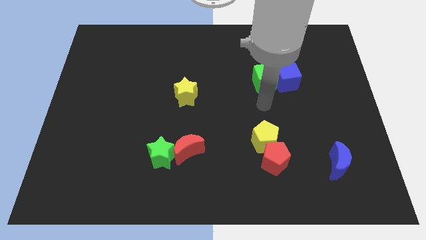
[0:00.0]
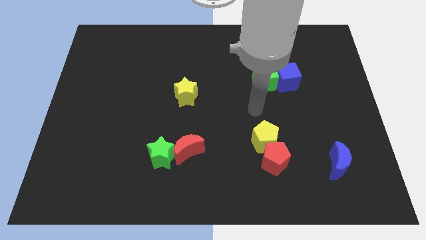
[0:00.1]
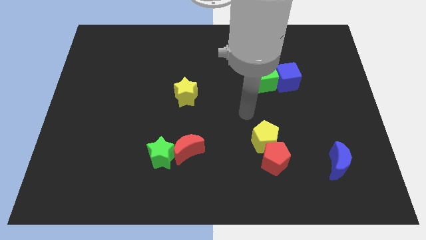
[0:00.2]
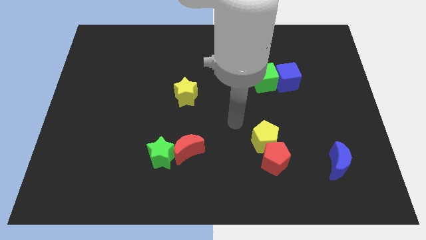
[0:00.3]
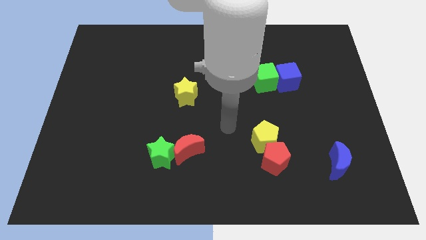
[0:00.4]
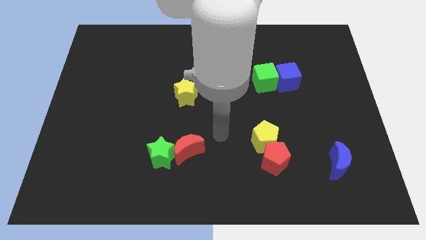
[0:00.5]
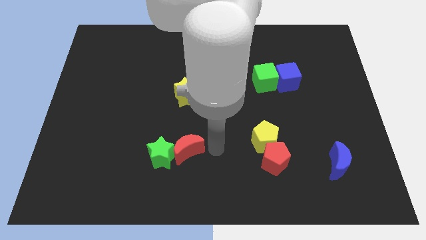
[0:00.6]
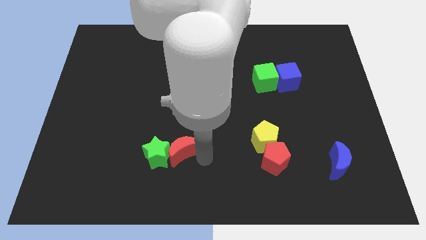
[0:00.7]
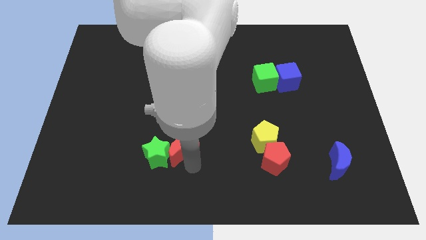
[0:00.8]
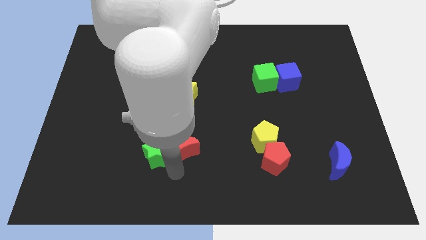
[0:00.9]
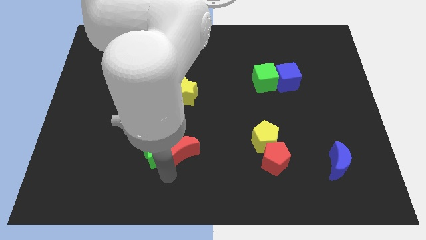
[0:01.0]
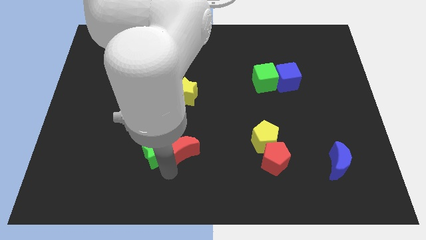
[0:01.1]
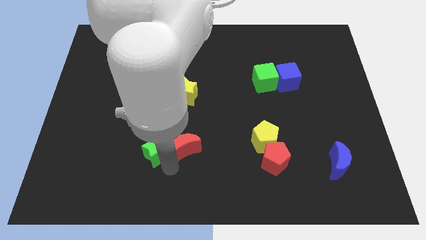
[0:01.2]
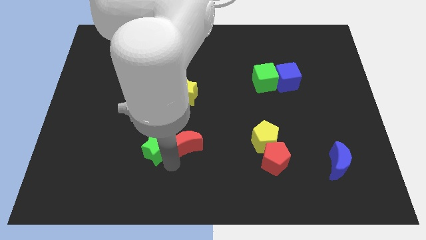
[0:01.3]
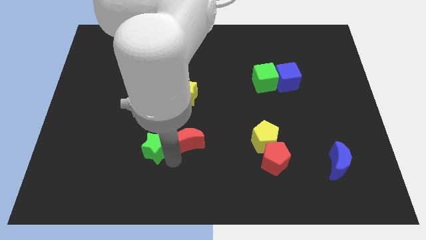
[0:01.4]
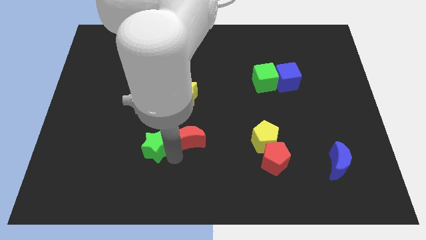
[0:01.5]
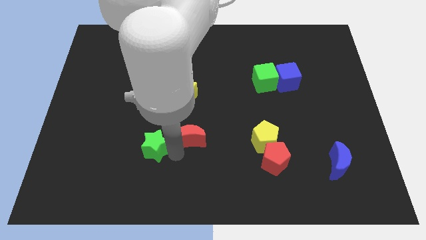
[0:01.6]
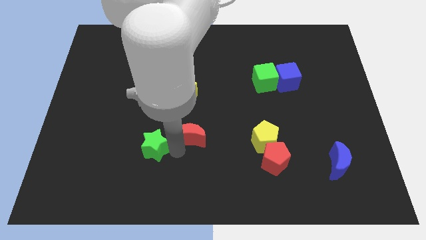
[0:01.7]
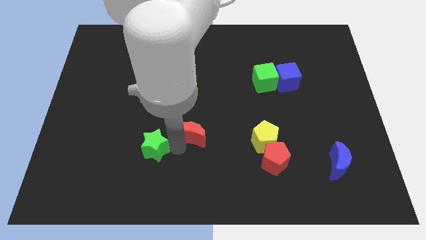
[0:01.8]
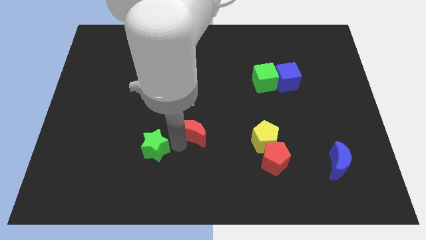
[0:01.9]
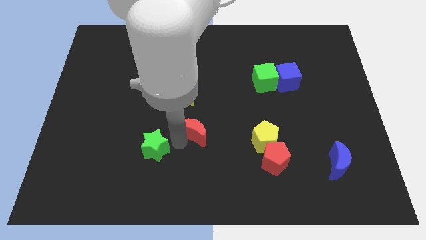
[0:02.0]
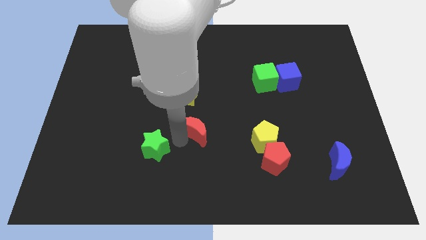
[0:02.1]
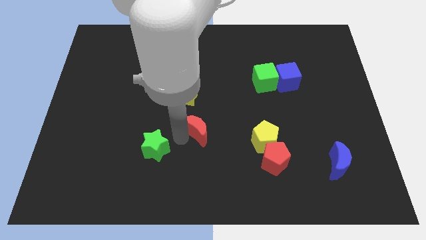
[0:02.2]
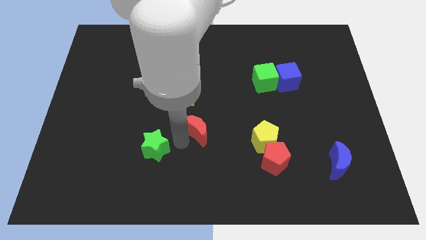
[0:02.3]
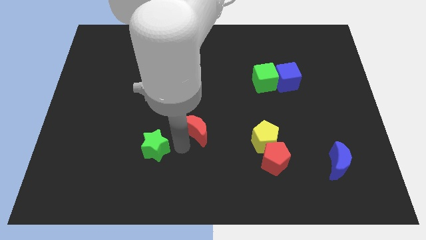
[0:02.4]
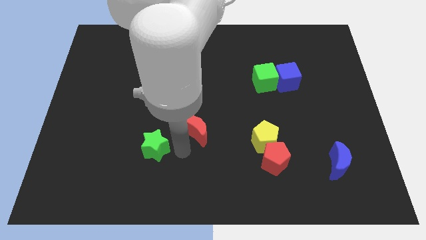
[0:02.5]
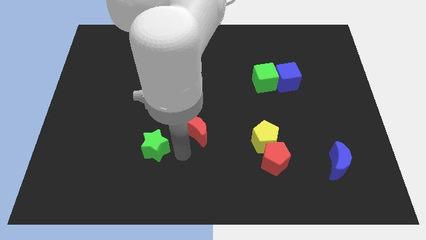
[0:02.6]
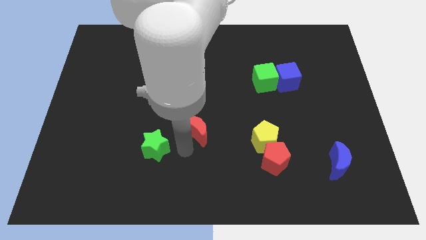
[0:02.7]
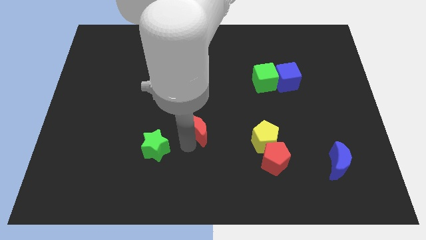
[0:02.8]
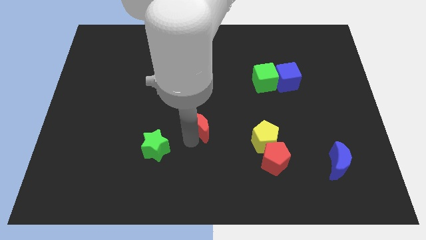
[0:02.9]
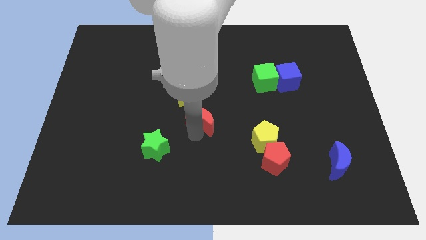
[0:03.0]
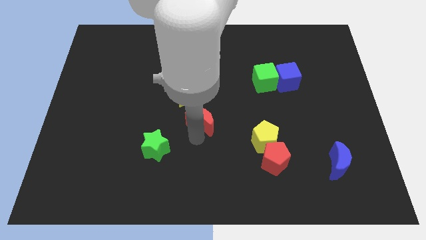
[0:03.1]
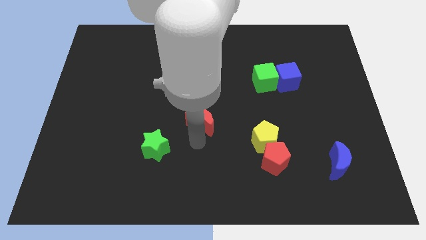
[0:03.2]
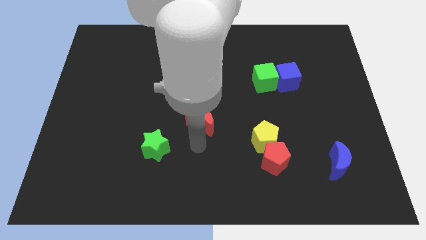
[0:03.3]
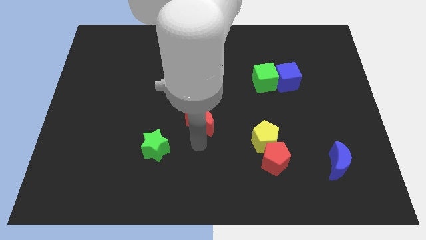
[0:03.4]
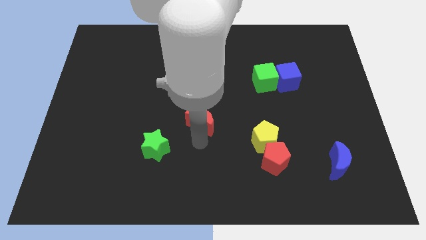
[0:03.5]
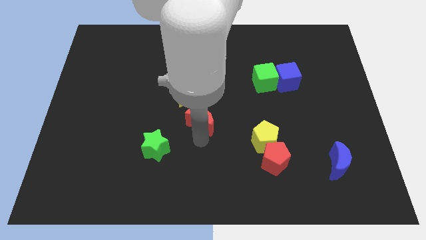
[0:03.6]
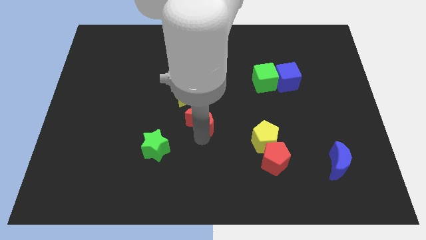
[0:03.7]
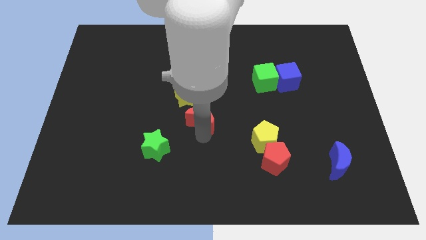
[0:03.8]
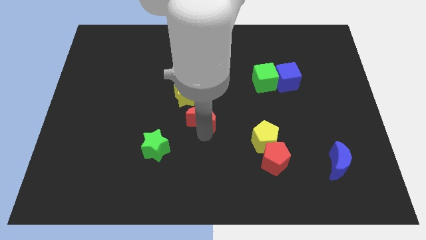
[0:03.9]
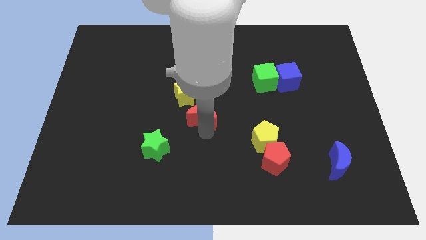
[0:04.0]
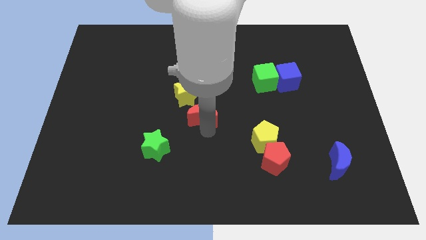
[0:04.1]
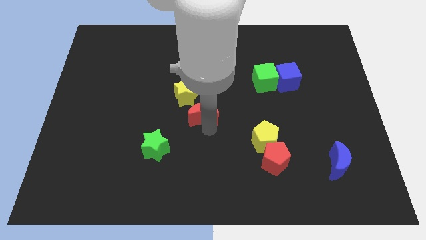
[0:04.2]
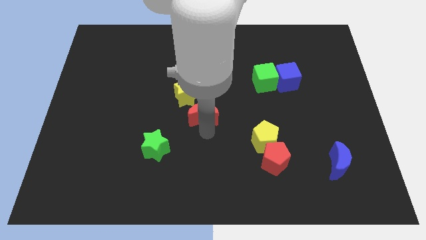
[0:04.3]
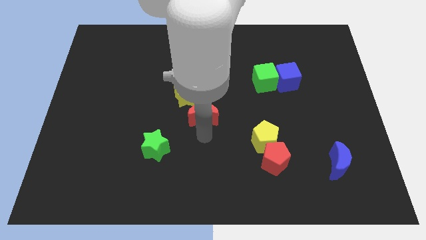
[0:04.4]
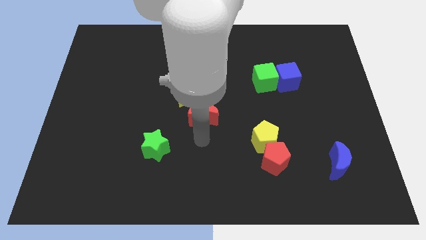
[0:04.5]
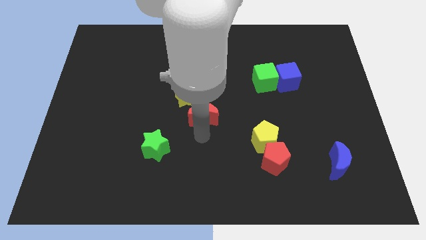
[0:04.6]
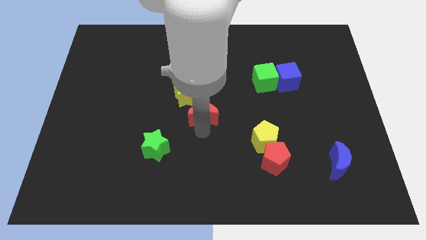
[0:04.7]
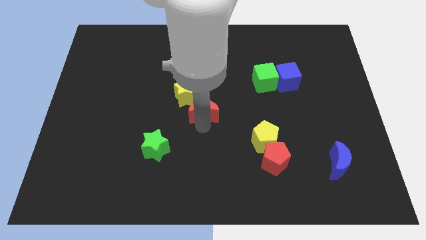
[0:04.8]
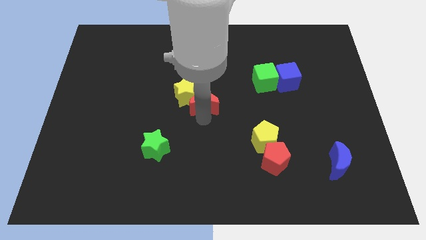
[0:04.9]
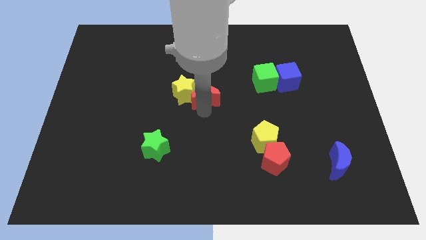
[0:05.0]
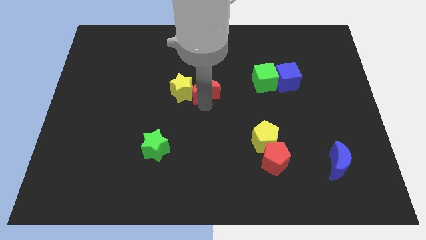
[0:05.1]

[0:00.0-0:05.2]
slide the red moon to the top right of the yellow star

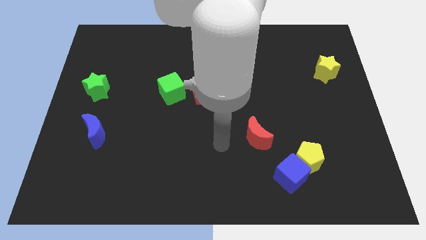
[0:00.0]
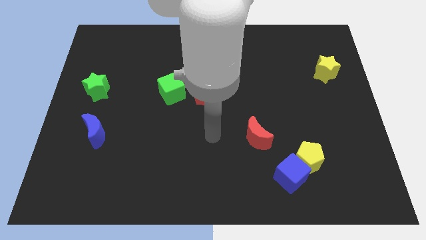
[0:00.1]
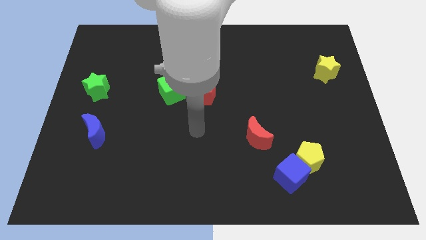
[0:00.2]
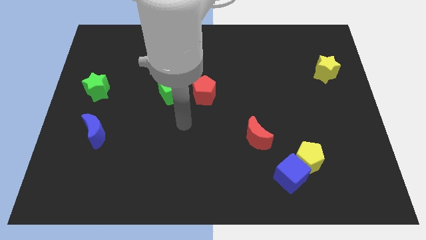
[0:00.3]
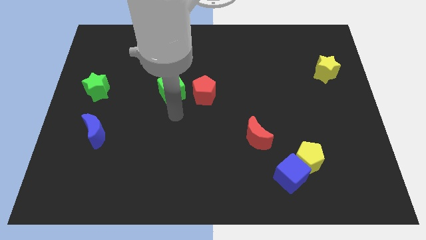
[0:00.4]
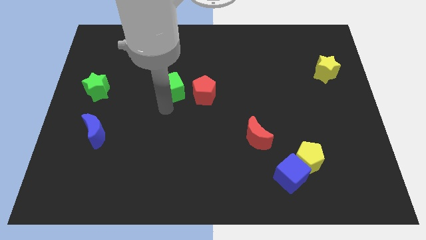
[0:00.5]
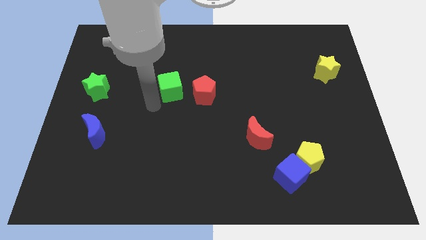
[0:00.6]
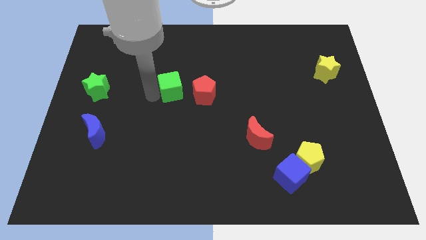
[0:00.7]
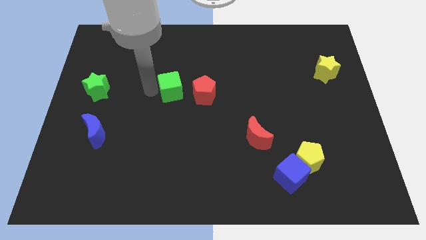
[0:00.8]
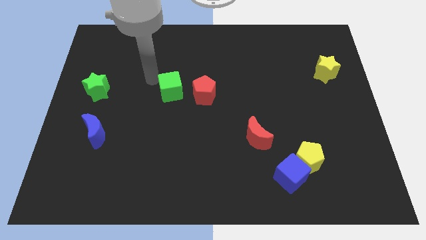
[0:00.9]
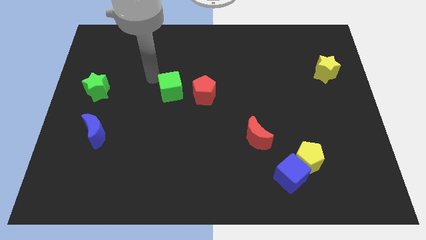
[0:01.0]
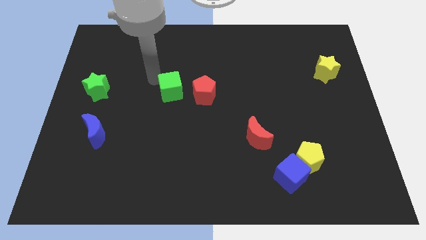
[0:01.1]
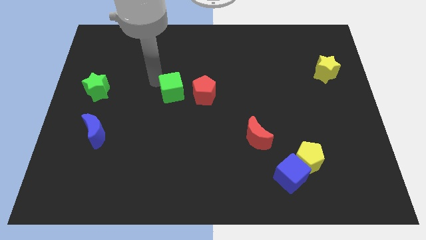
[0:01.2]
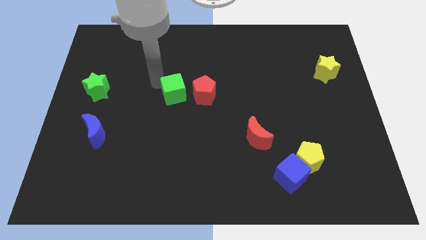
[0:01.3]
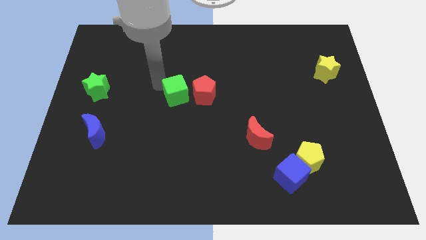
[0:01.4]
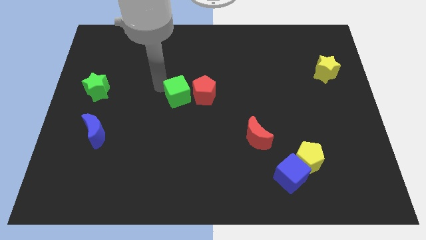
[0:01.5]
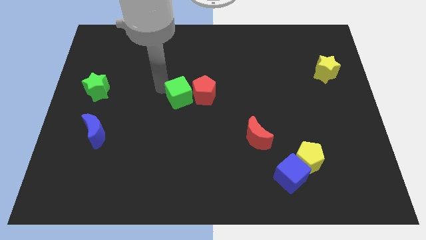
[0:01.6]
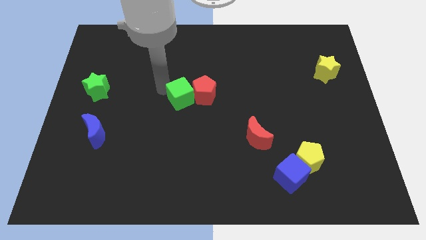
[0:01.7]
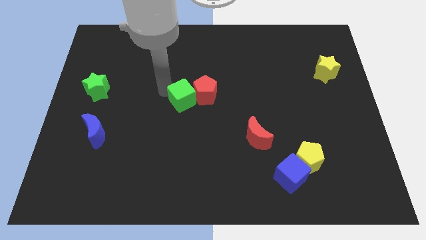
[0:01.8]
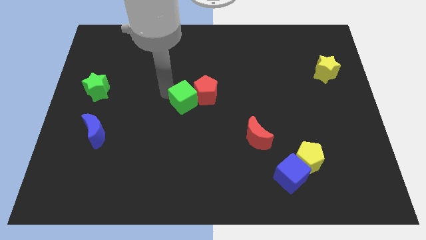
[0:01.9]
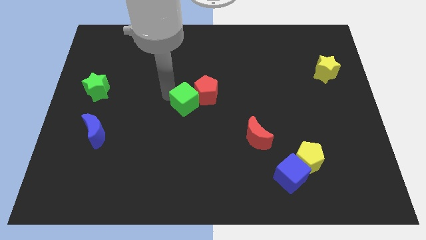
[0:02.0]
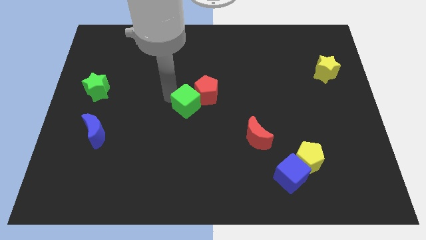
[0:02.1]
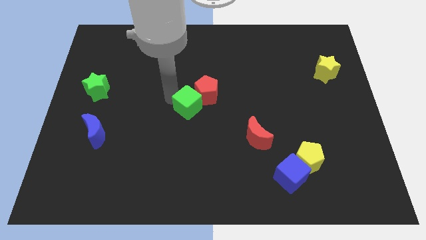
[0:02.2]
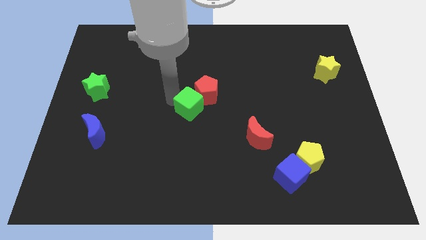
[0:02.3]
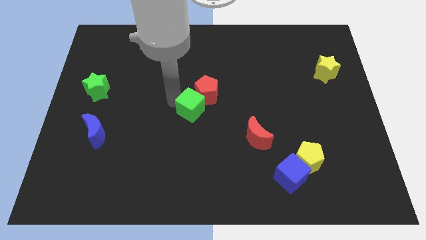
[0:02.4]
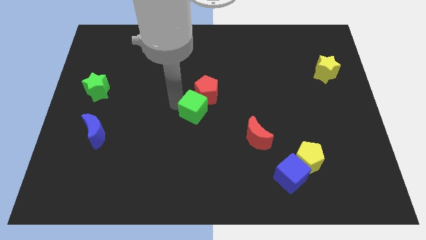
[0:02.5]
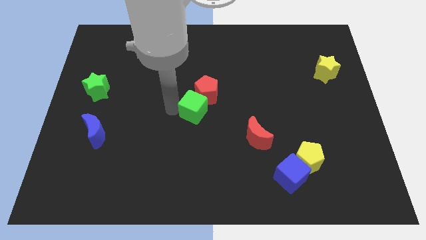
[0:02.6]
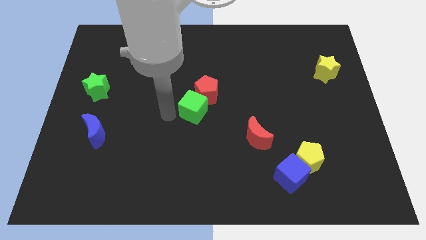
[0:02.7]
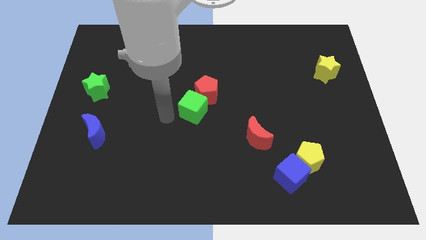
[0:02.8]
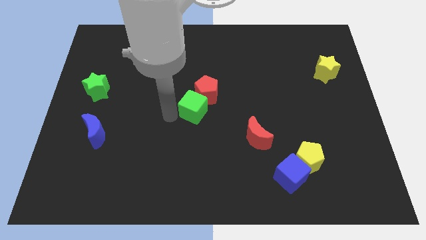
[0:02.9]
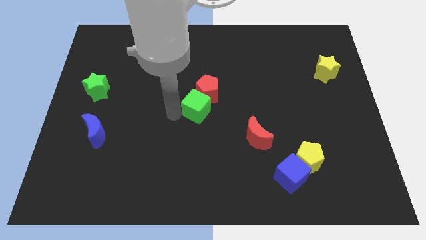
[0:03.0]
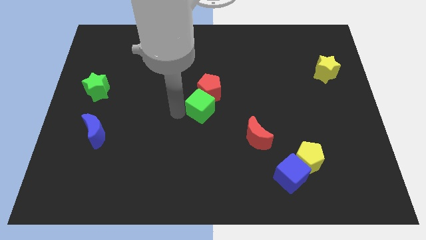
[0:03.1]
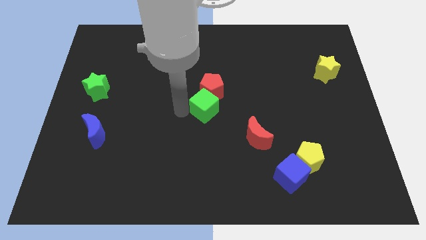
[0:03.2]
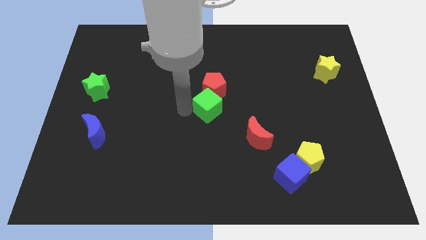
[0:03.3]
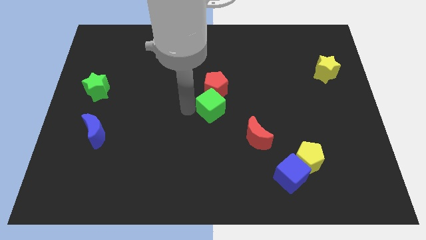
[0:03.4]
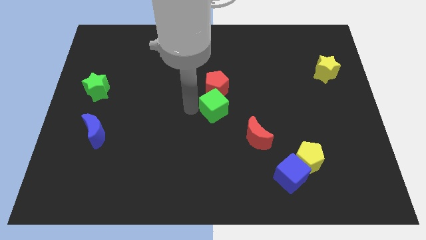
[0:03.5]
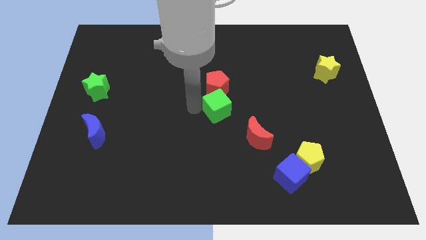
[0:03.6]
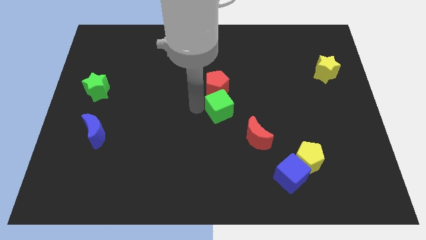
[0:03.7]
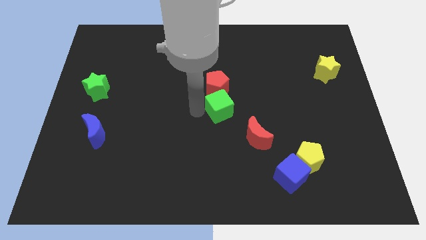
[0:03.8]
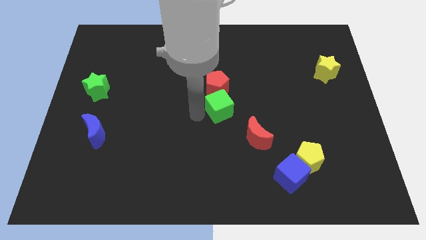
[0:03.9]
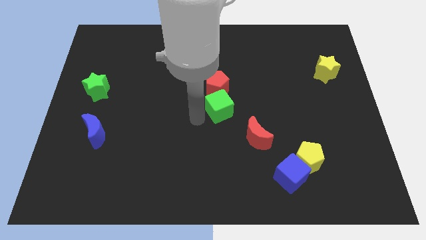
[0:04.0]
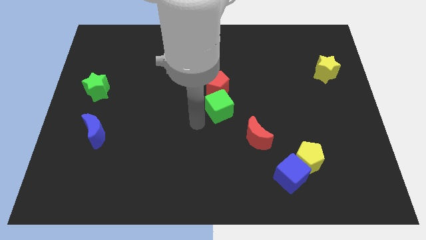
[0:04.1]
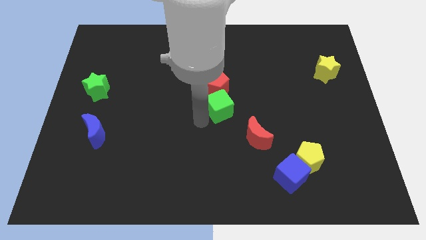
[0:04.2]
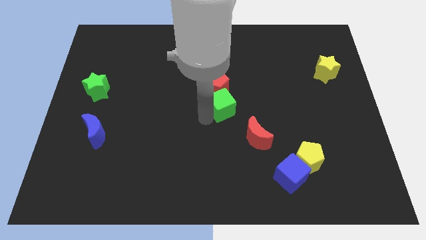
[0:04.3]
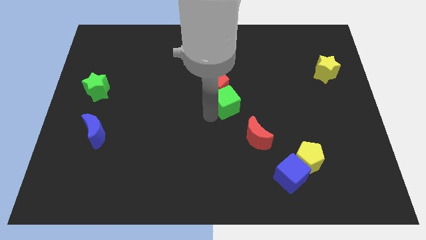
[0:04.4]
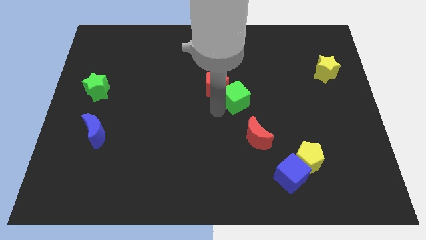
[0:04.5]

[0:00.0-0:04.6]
slide the green cube right of the red pentagon
